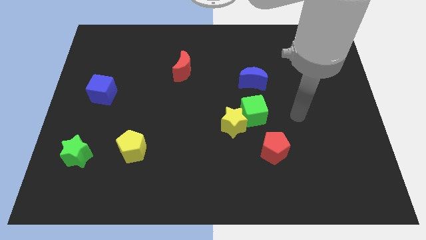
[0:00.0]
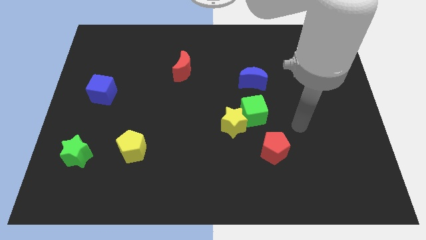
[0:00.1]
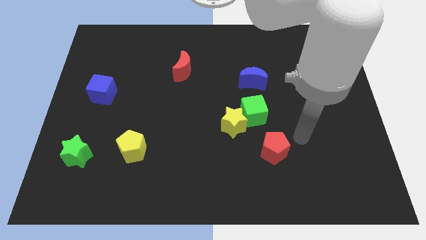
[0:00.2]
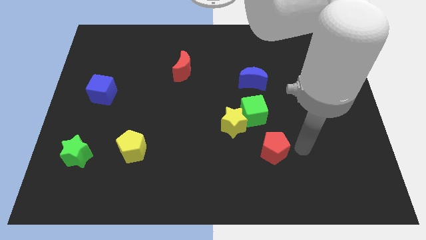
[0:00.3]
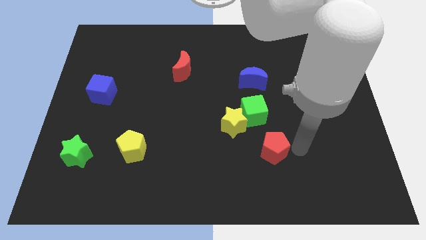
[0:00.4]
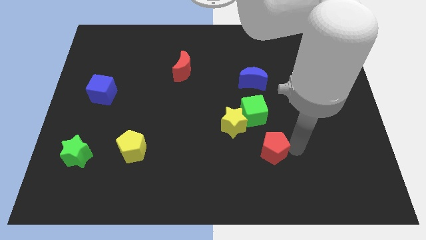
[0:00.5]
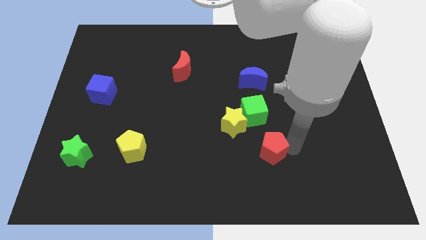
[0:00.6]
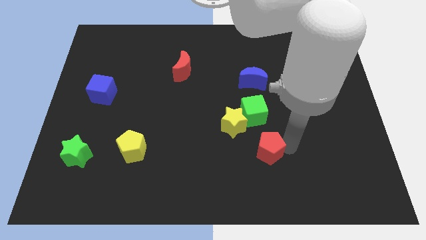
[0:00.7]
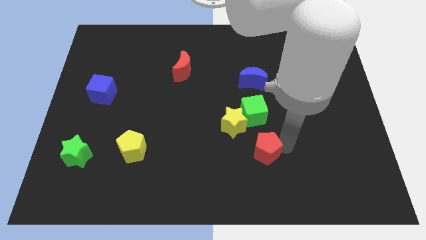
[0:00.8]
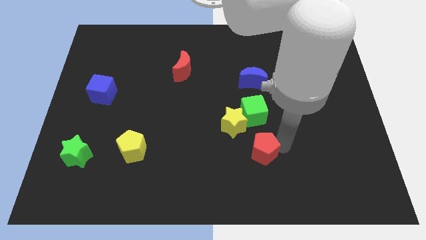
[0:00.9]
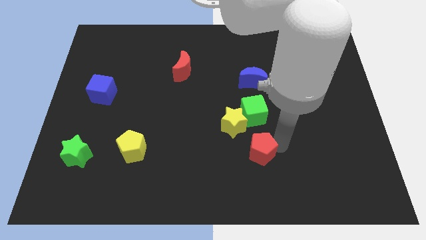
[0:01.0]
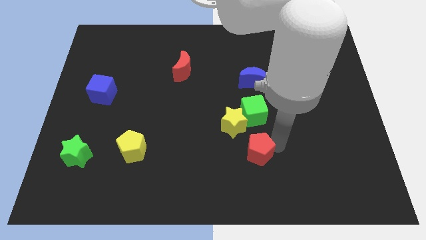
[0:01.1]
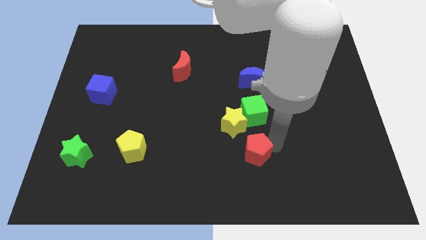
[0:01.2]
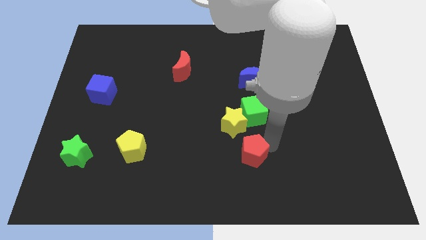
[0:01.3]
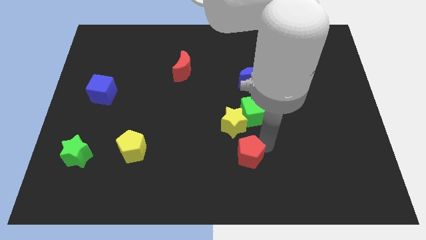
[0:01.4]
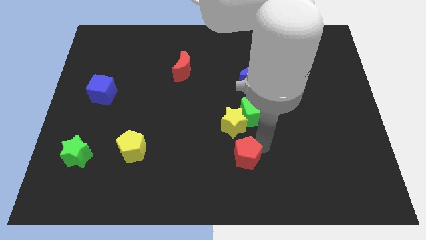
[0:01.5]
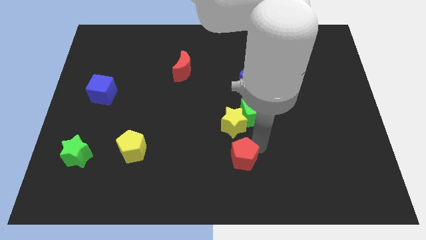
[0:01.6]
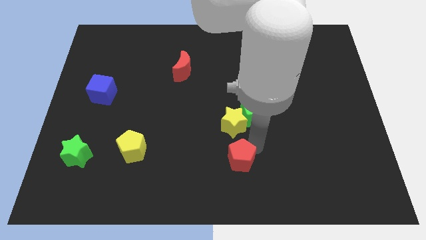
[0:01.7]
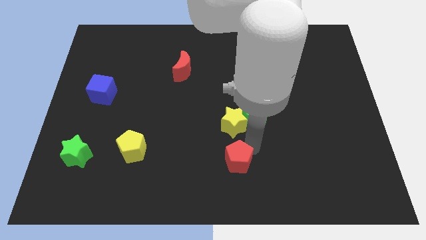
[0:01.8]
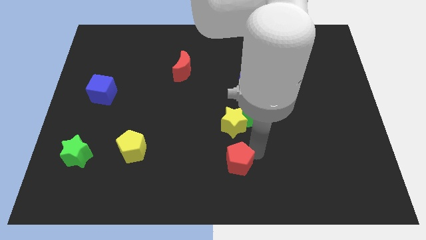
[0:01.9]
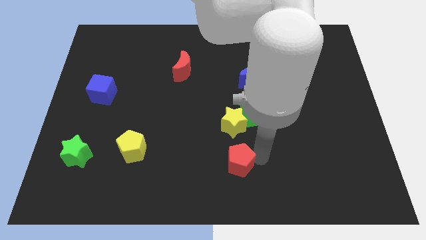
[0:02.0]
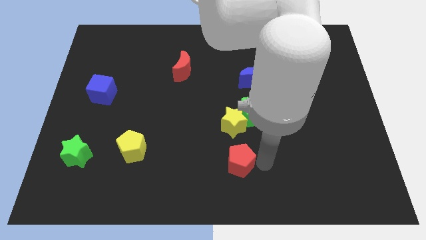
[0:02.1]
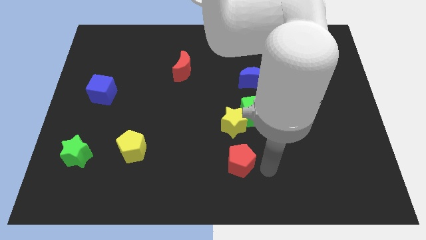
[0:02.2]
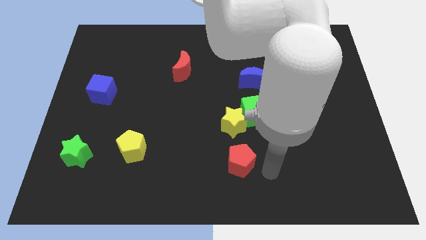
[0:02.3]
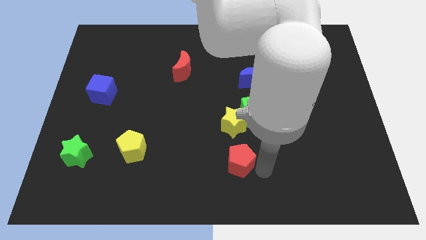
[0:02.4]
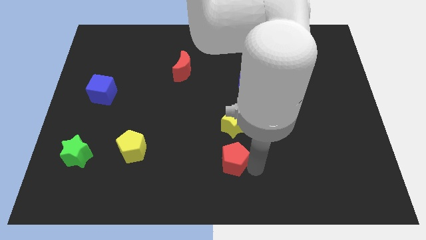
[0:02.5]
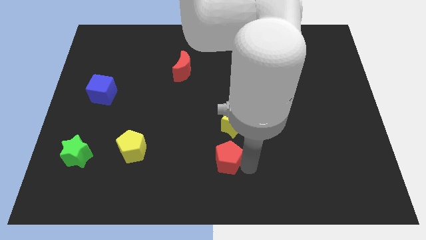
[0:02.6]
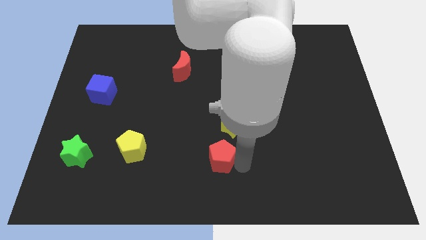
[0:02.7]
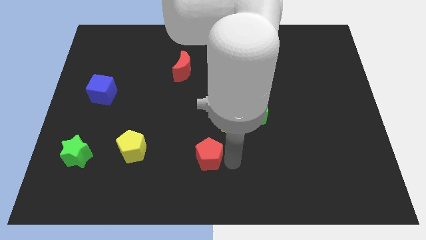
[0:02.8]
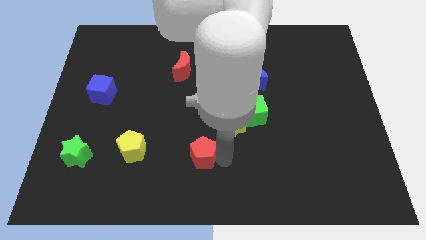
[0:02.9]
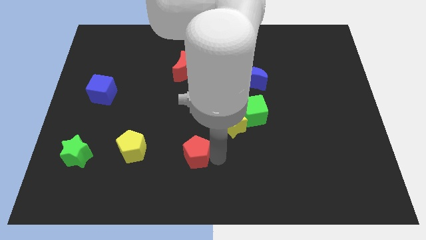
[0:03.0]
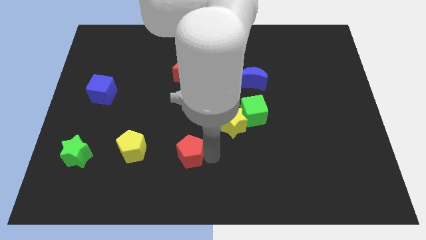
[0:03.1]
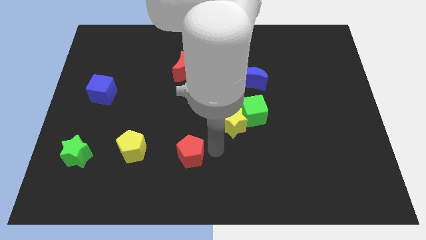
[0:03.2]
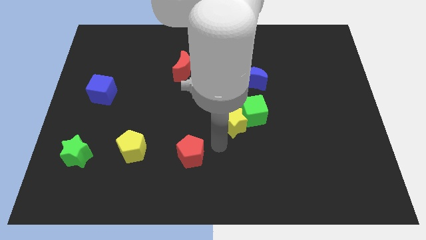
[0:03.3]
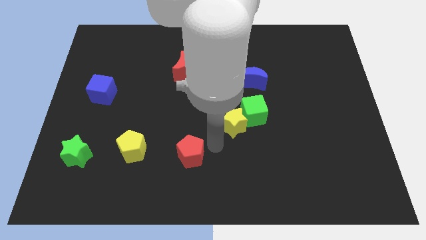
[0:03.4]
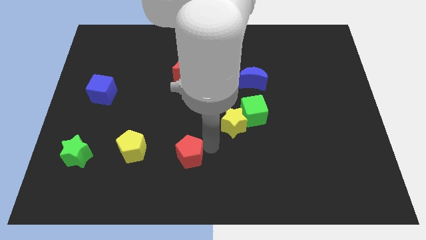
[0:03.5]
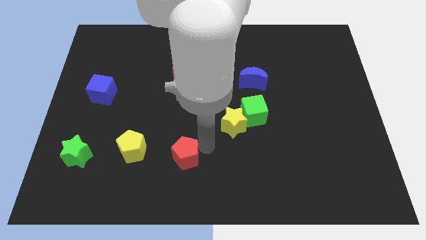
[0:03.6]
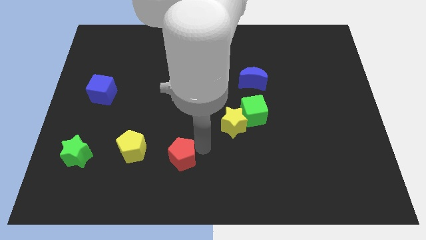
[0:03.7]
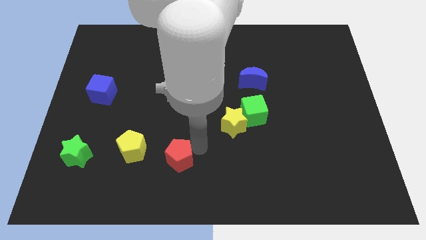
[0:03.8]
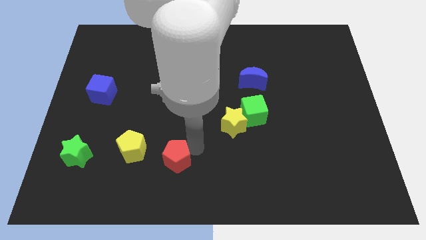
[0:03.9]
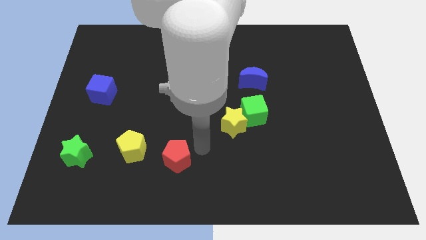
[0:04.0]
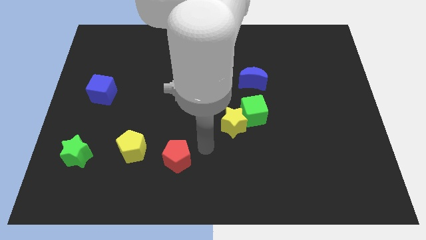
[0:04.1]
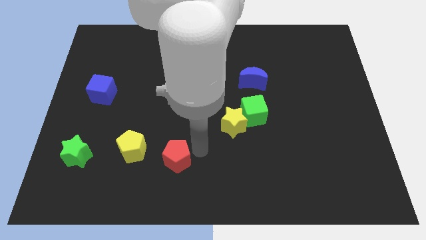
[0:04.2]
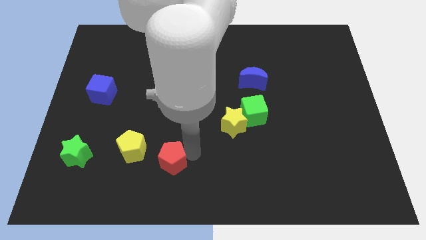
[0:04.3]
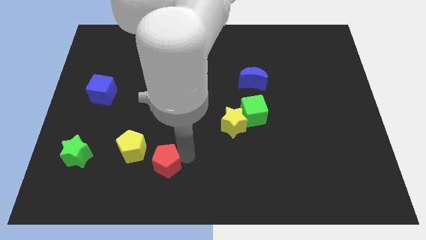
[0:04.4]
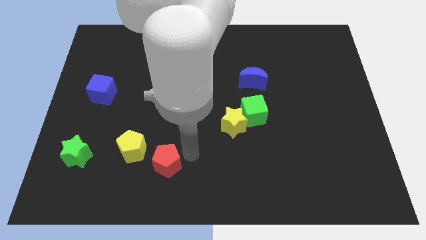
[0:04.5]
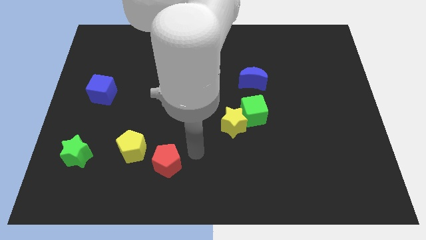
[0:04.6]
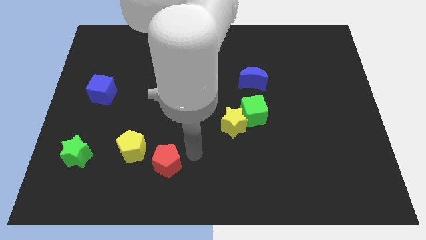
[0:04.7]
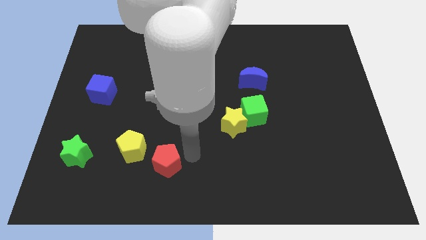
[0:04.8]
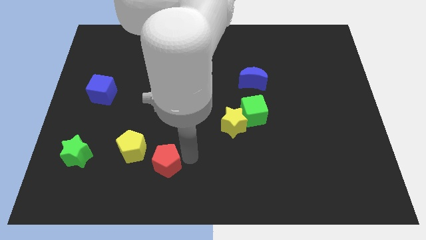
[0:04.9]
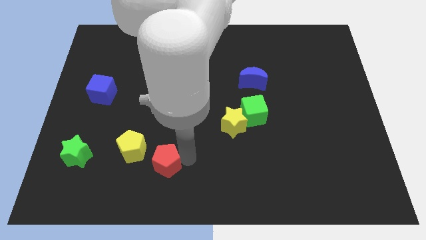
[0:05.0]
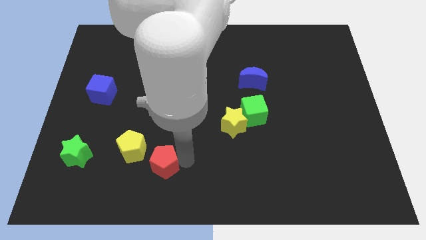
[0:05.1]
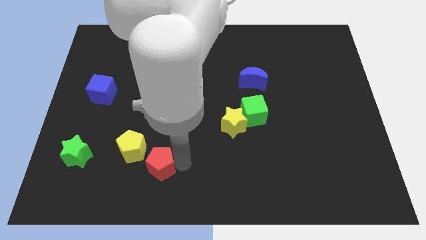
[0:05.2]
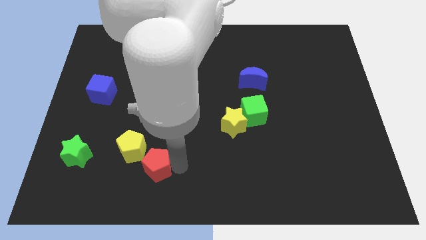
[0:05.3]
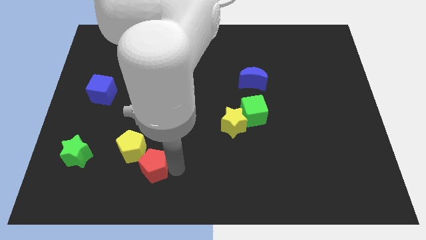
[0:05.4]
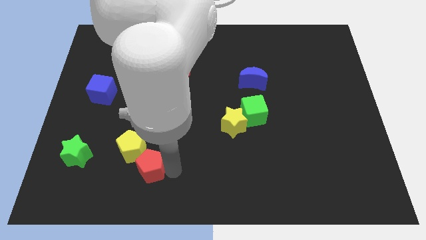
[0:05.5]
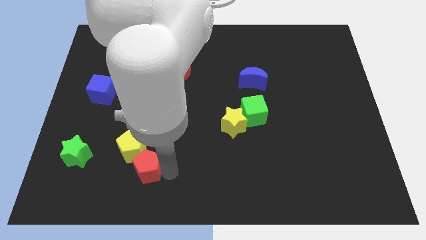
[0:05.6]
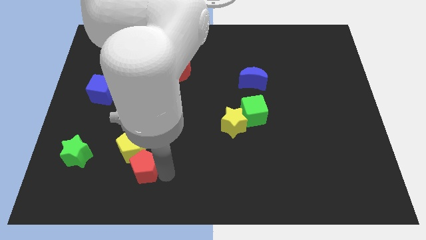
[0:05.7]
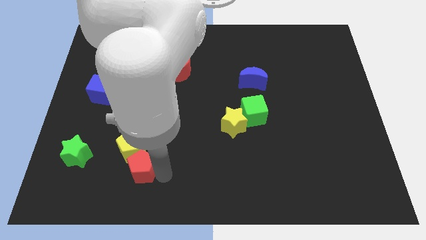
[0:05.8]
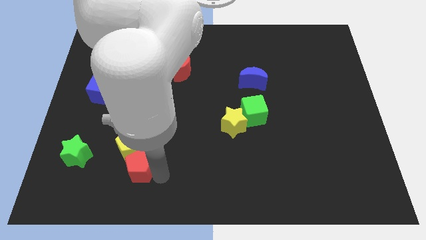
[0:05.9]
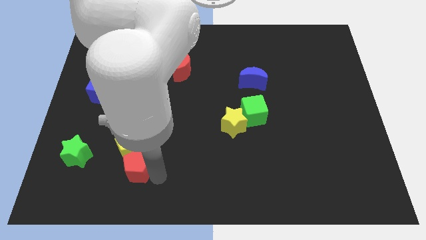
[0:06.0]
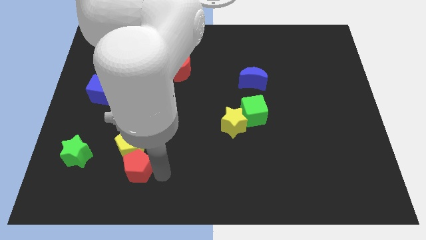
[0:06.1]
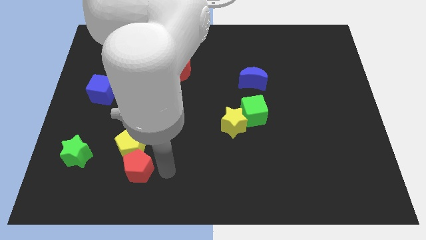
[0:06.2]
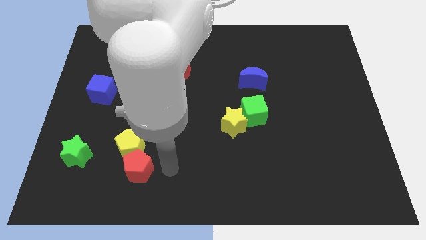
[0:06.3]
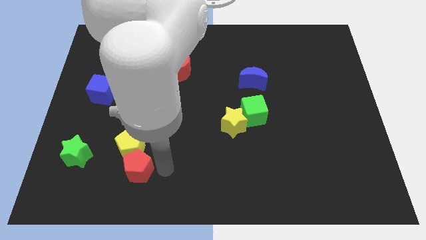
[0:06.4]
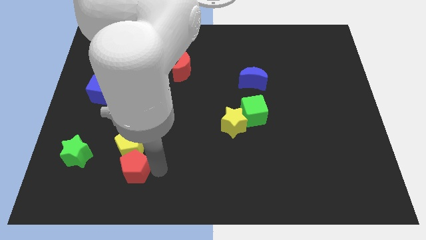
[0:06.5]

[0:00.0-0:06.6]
slide the red pentagon to the bottom left side of the yellow pentagon

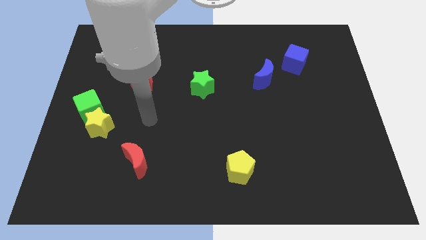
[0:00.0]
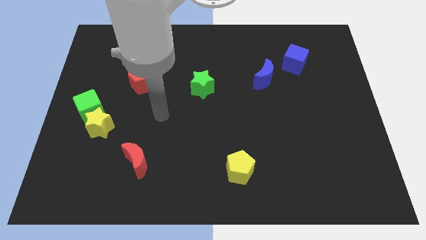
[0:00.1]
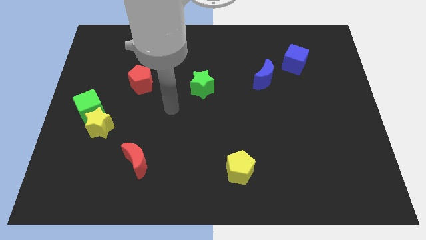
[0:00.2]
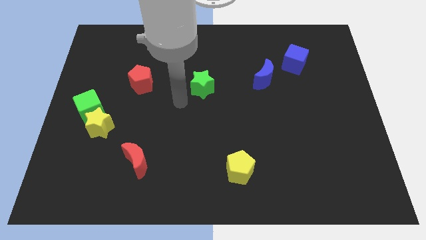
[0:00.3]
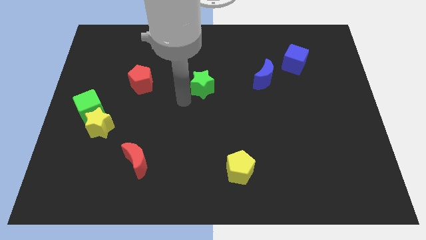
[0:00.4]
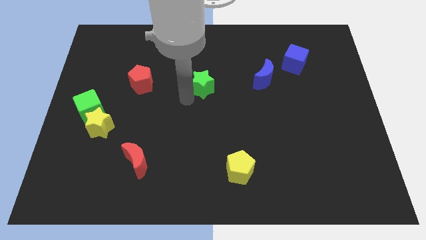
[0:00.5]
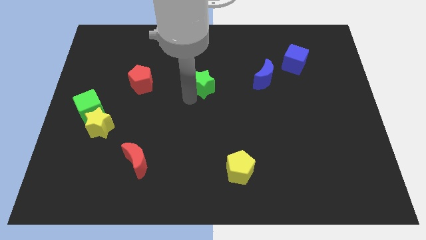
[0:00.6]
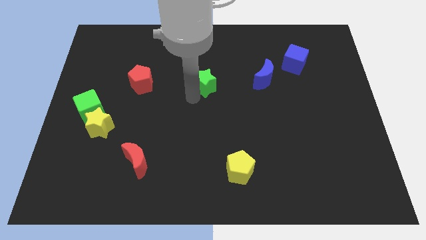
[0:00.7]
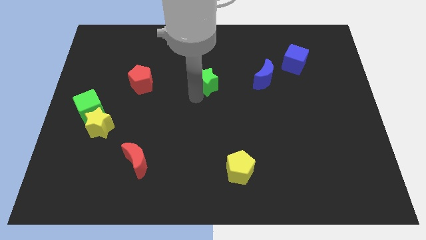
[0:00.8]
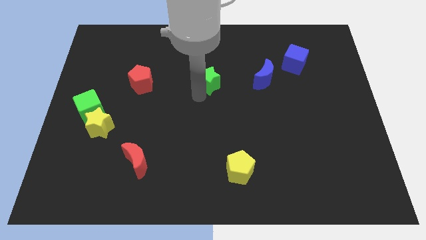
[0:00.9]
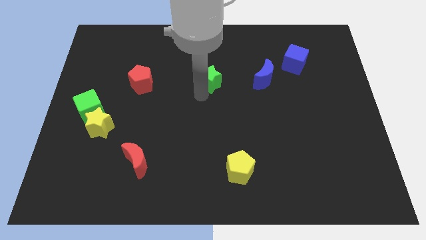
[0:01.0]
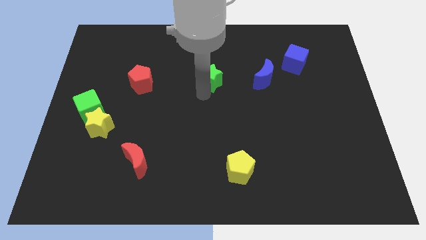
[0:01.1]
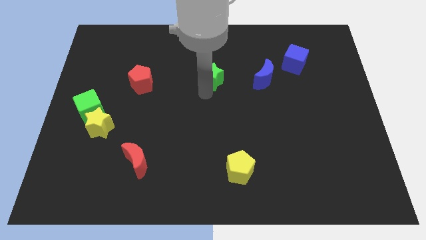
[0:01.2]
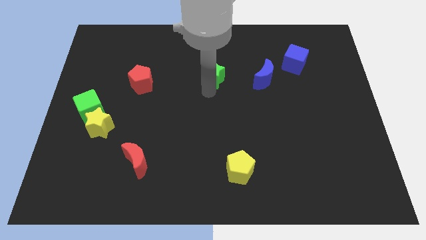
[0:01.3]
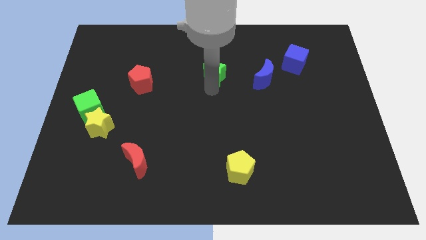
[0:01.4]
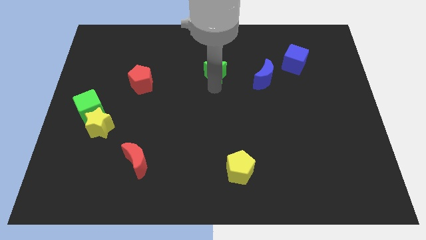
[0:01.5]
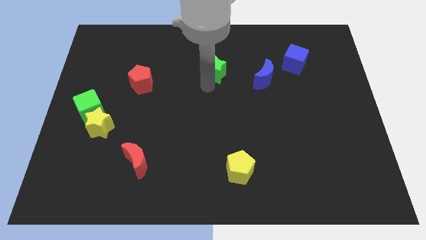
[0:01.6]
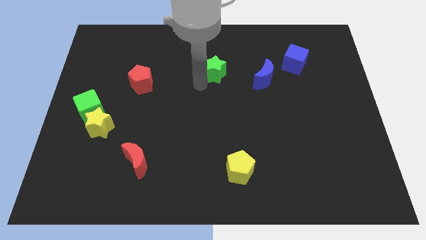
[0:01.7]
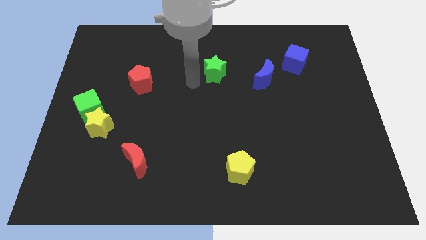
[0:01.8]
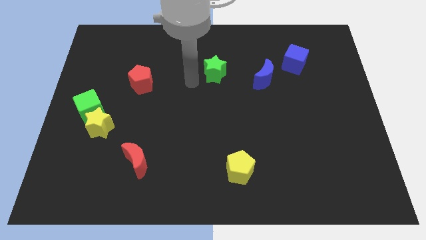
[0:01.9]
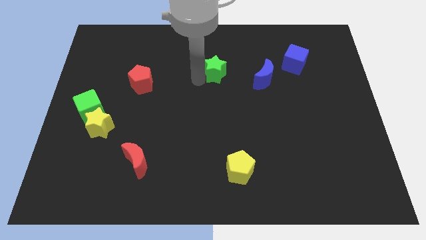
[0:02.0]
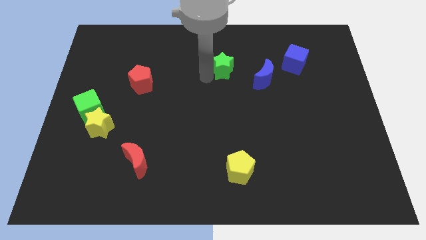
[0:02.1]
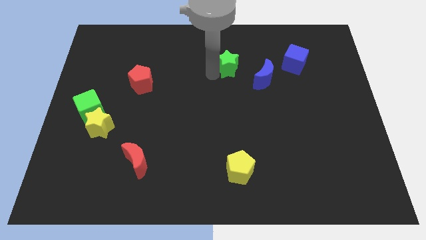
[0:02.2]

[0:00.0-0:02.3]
push the green star to the top left side of the blue moon
